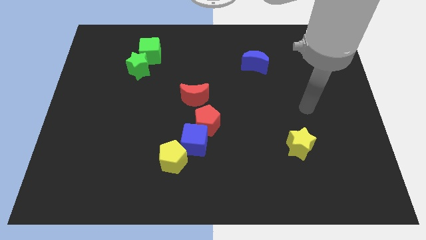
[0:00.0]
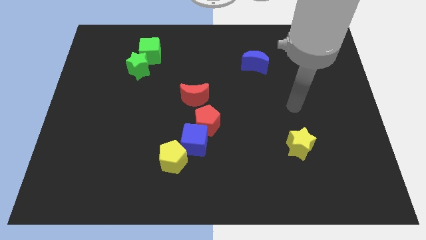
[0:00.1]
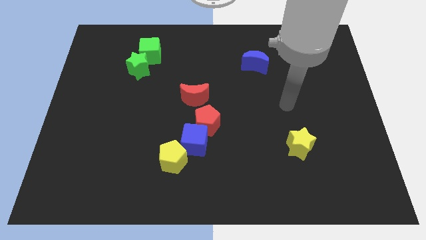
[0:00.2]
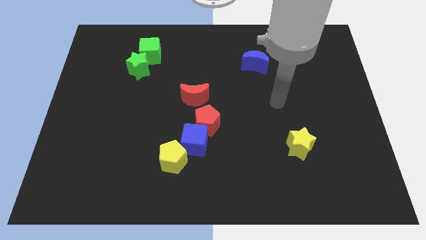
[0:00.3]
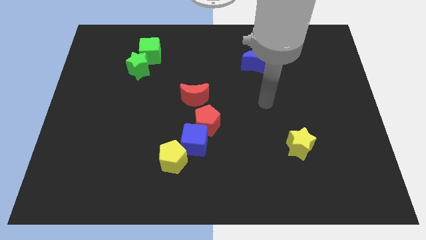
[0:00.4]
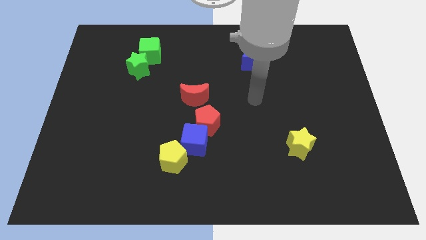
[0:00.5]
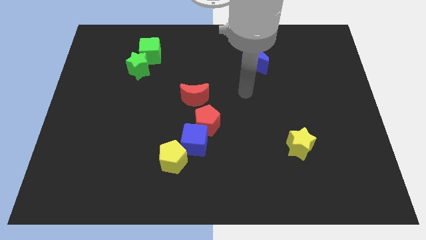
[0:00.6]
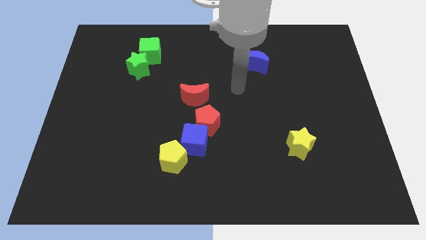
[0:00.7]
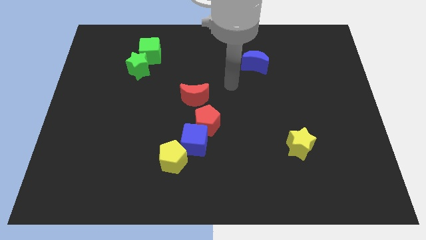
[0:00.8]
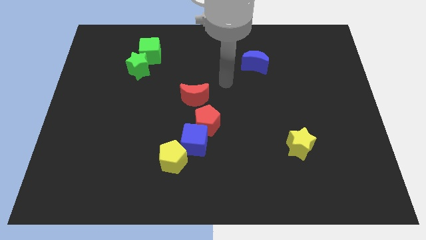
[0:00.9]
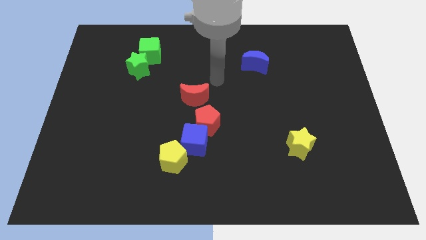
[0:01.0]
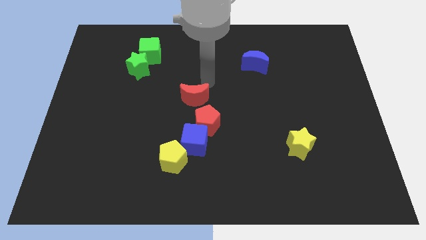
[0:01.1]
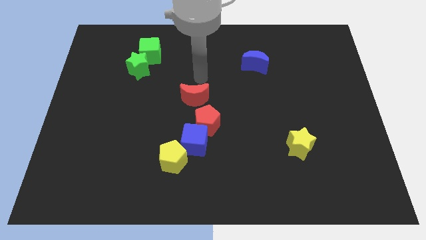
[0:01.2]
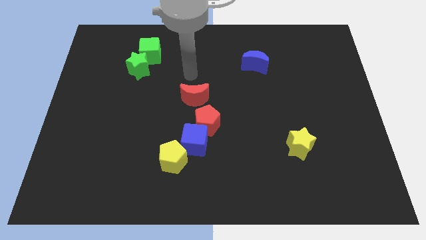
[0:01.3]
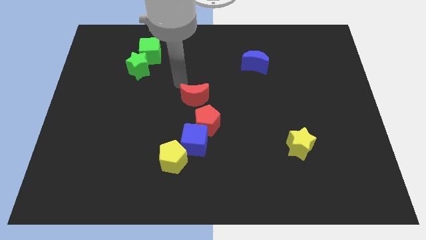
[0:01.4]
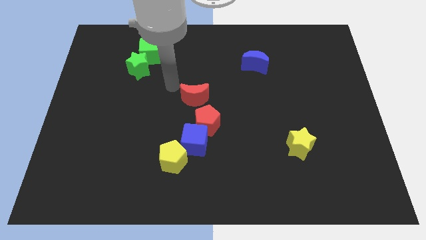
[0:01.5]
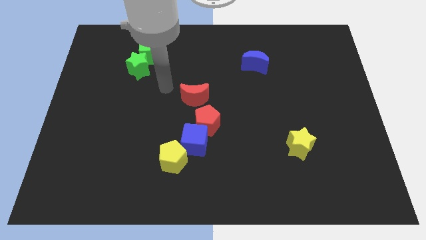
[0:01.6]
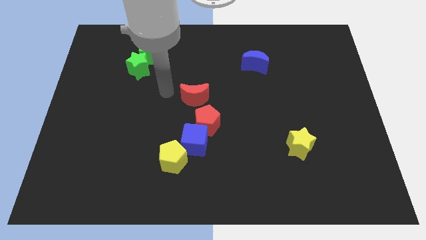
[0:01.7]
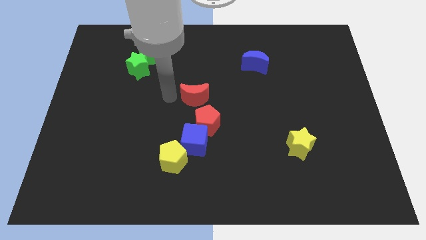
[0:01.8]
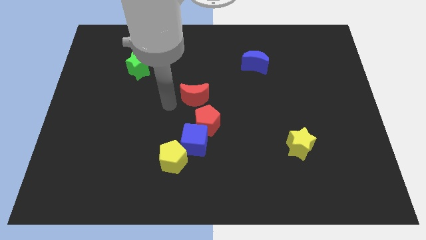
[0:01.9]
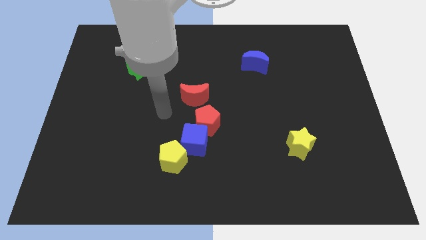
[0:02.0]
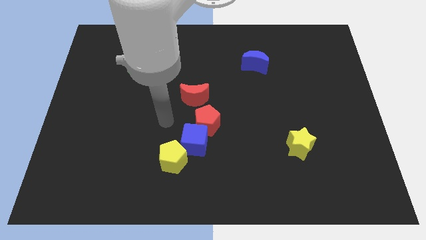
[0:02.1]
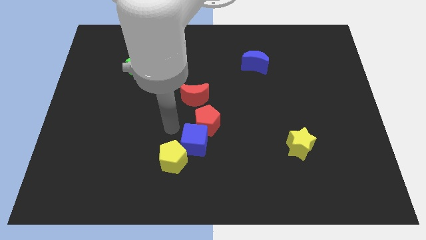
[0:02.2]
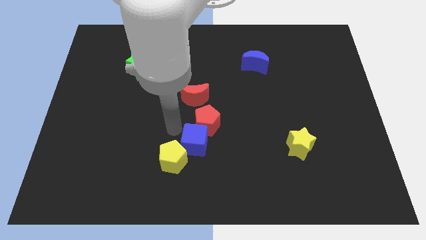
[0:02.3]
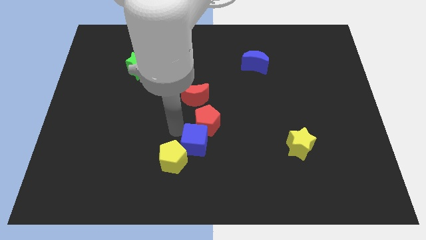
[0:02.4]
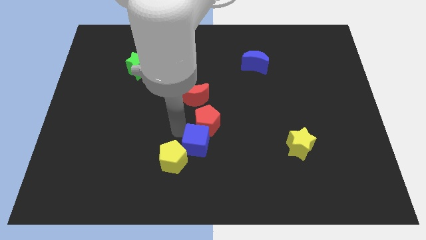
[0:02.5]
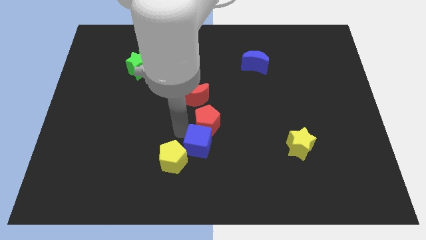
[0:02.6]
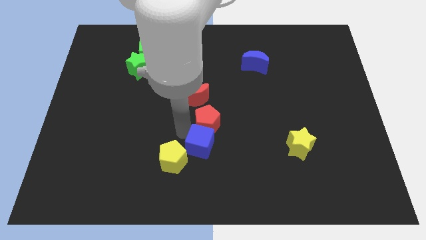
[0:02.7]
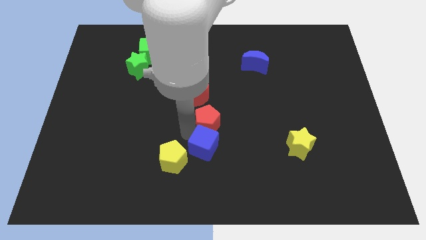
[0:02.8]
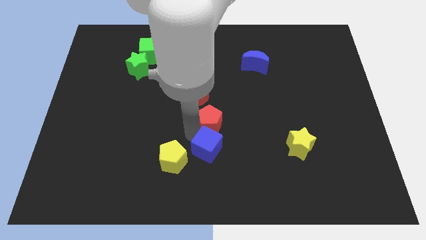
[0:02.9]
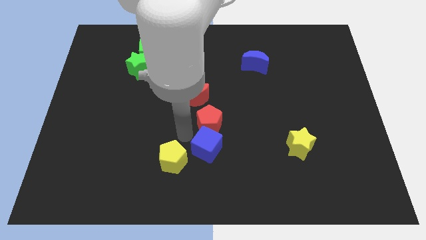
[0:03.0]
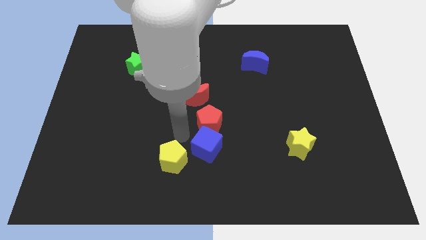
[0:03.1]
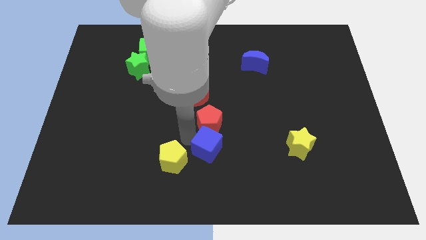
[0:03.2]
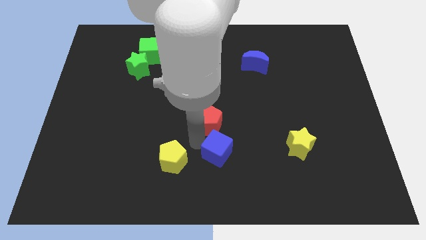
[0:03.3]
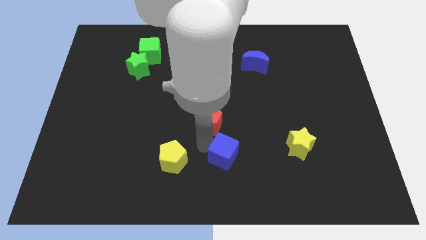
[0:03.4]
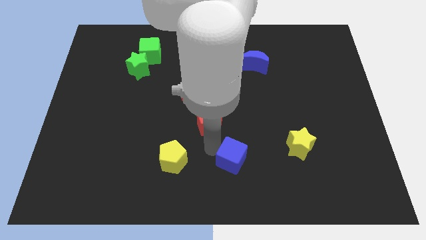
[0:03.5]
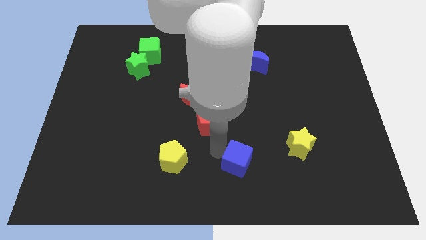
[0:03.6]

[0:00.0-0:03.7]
move the blue cube away from the red pentagon and yellow pentagon

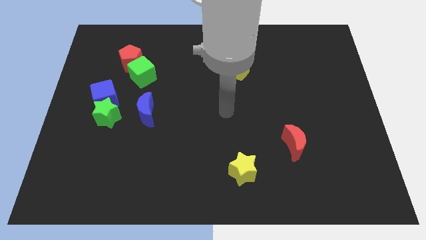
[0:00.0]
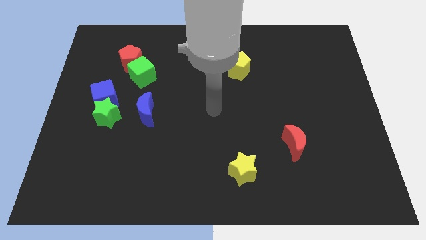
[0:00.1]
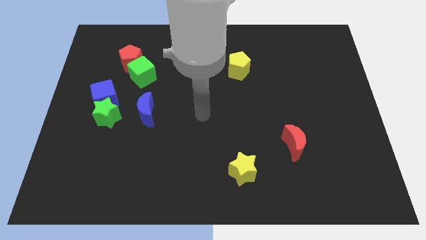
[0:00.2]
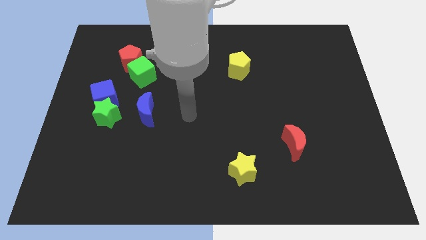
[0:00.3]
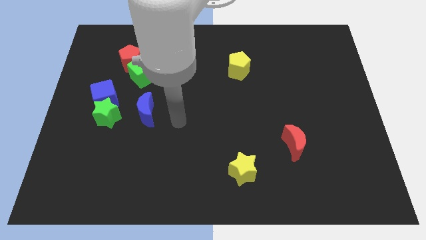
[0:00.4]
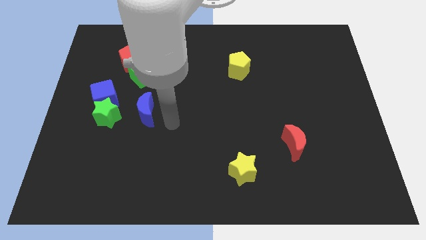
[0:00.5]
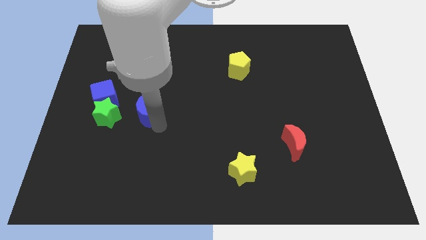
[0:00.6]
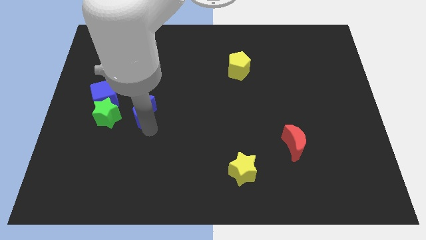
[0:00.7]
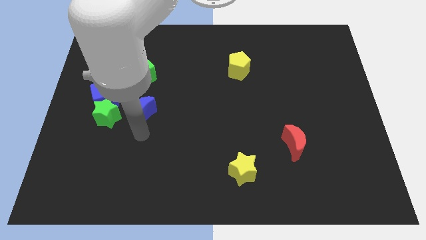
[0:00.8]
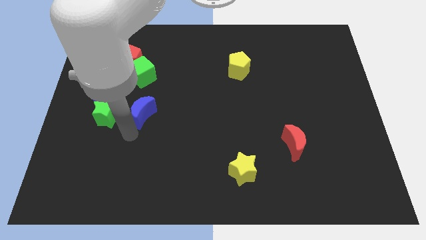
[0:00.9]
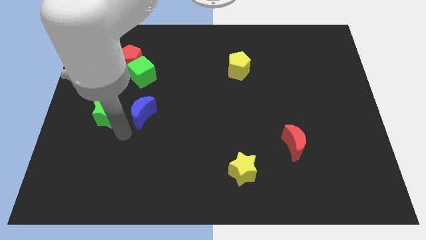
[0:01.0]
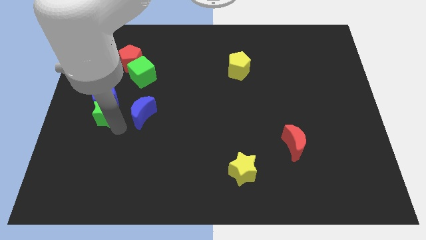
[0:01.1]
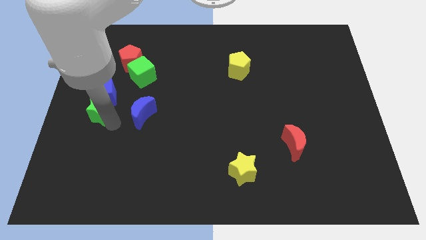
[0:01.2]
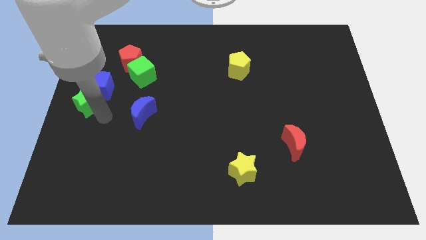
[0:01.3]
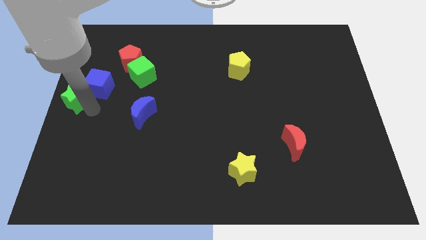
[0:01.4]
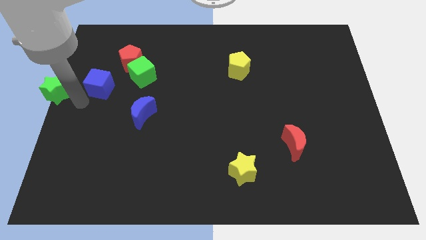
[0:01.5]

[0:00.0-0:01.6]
move the blue cube away from the green star

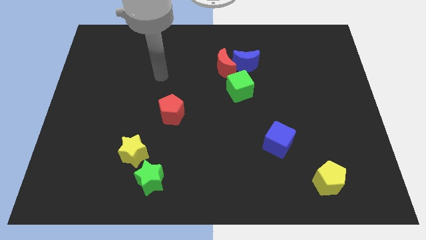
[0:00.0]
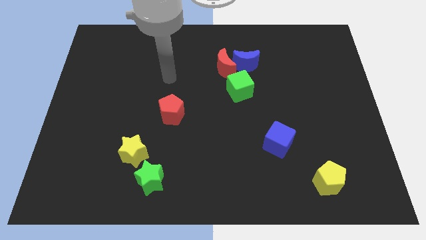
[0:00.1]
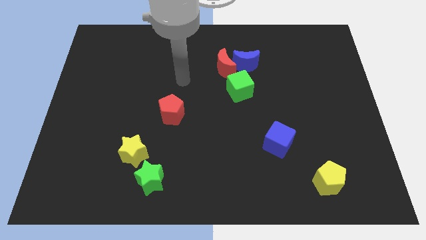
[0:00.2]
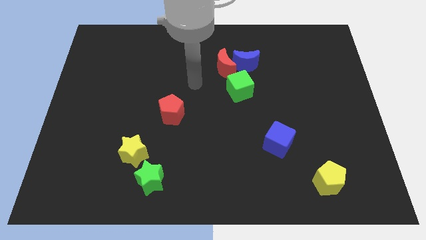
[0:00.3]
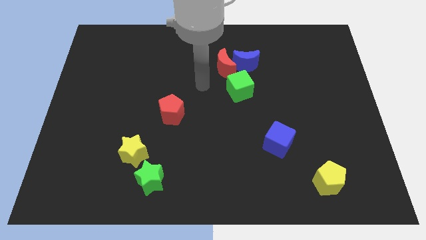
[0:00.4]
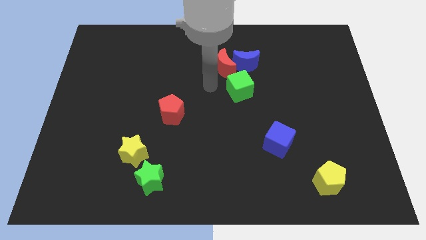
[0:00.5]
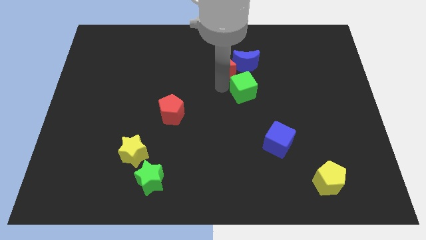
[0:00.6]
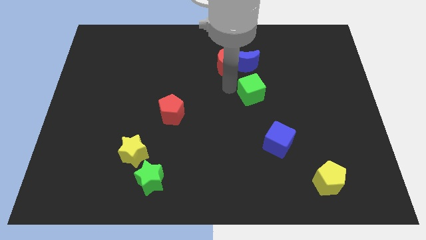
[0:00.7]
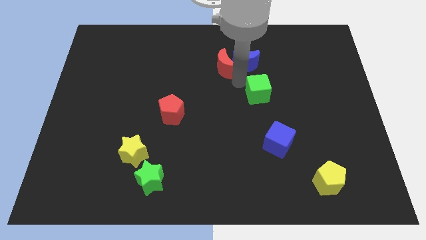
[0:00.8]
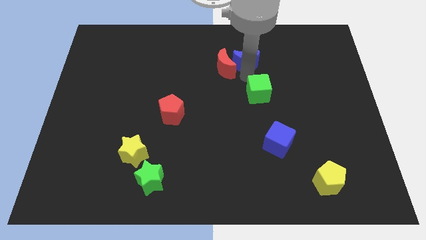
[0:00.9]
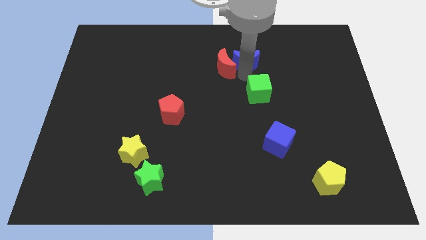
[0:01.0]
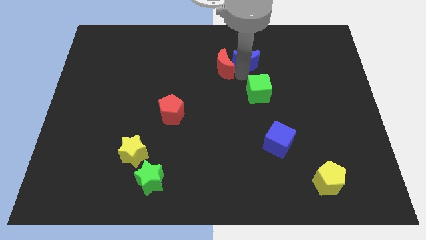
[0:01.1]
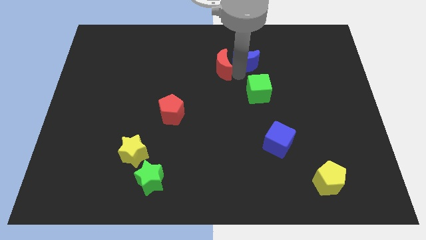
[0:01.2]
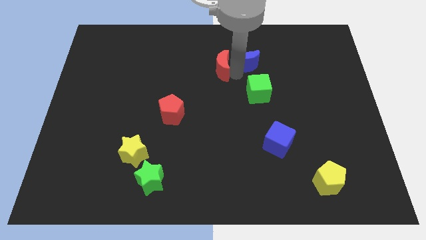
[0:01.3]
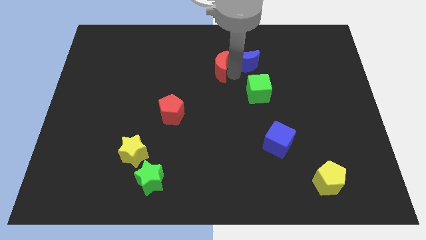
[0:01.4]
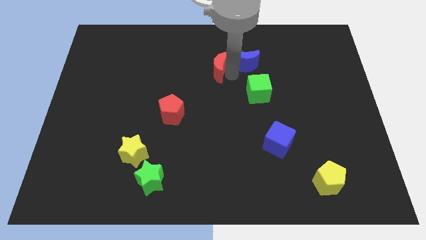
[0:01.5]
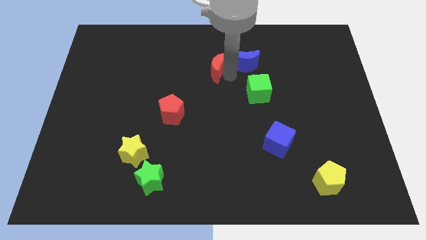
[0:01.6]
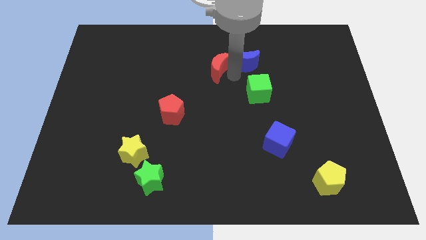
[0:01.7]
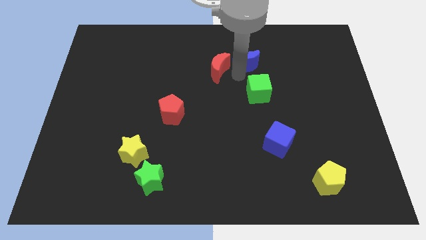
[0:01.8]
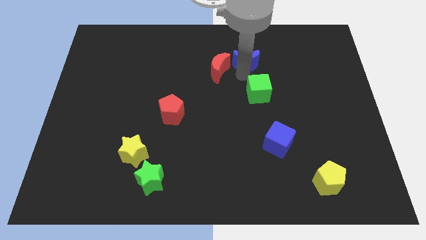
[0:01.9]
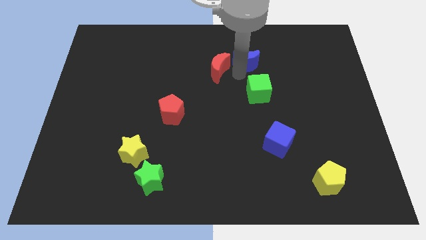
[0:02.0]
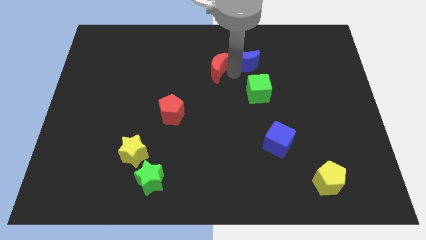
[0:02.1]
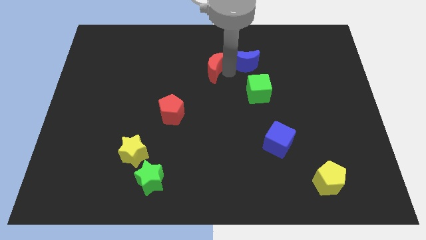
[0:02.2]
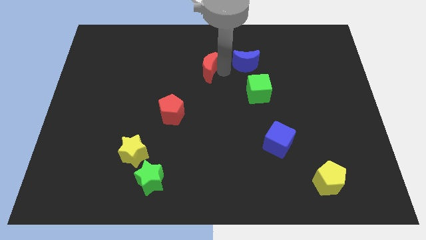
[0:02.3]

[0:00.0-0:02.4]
separate the red moon from the blue moon and green cube

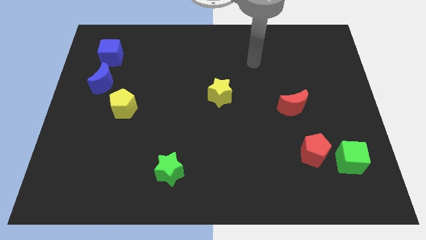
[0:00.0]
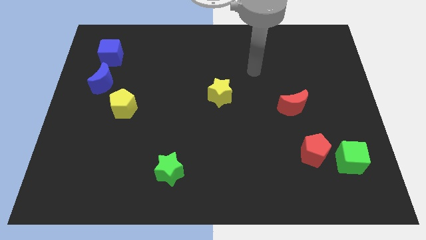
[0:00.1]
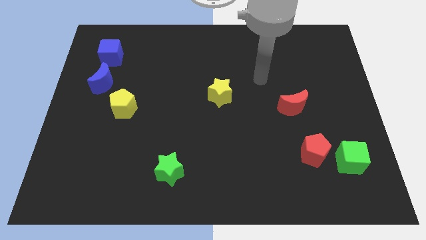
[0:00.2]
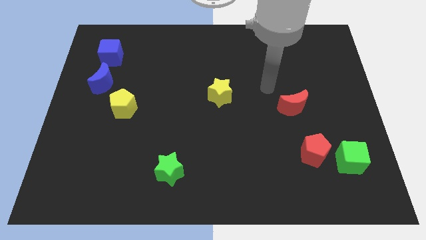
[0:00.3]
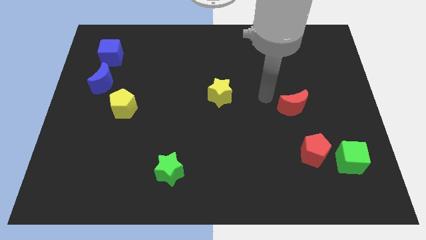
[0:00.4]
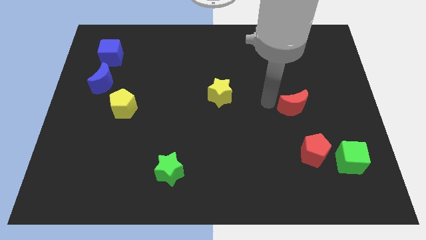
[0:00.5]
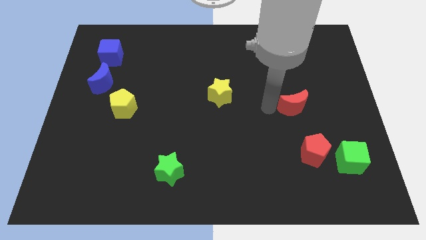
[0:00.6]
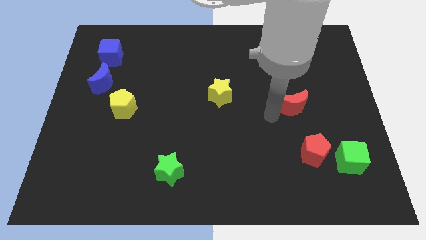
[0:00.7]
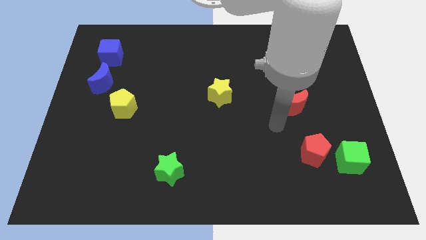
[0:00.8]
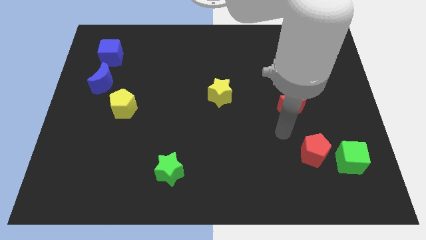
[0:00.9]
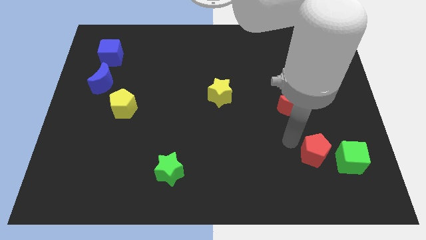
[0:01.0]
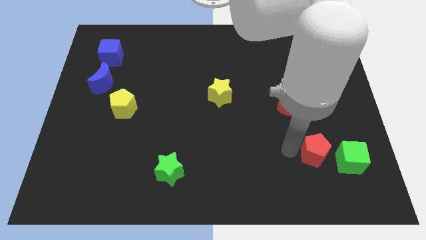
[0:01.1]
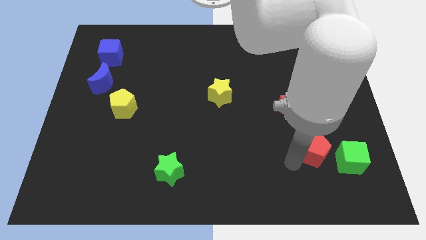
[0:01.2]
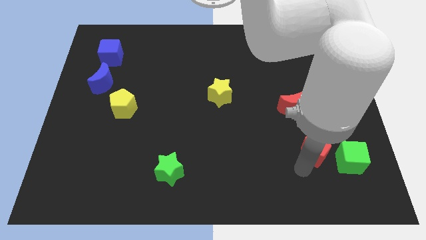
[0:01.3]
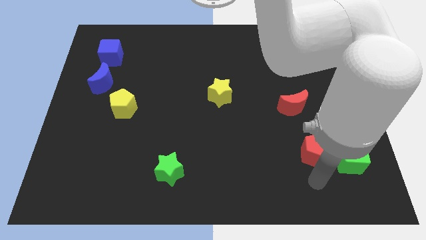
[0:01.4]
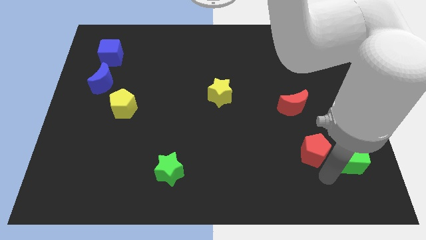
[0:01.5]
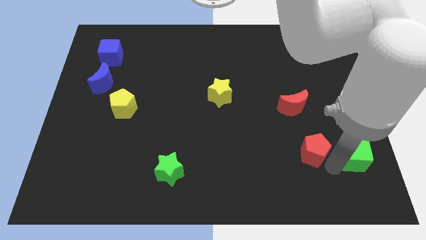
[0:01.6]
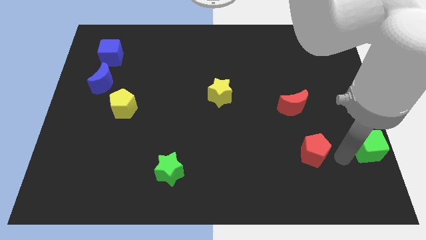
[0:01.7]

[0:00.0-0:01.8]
separate the red pentagon from the green cube
